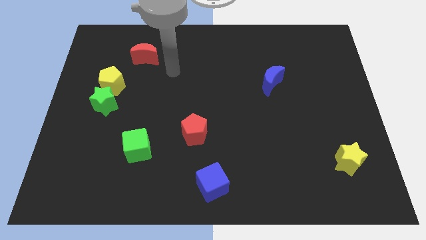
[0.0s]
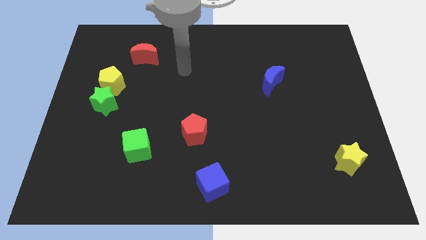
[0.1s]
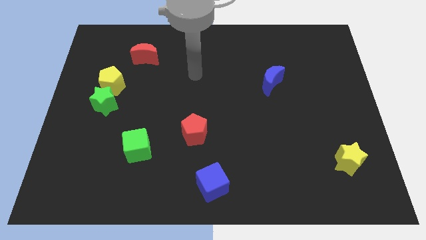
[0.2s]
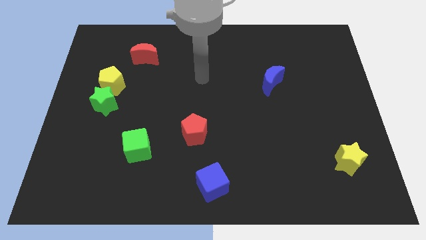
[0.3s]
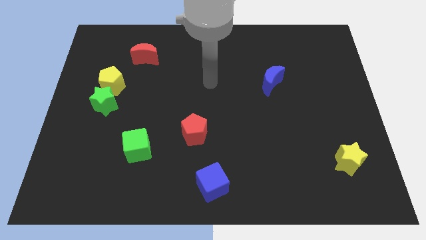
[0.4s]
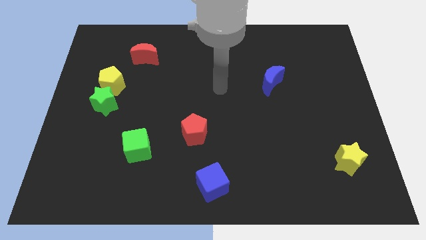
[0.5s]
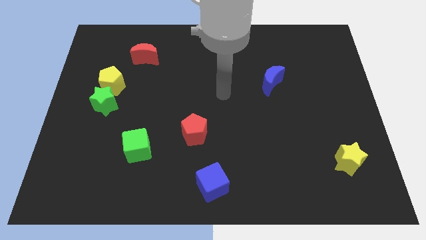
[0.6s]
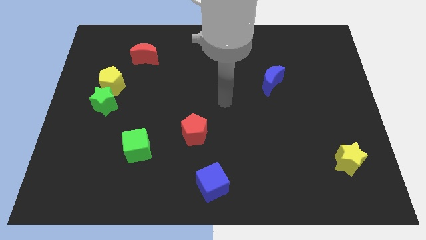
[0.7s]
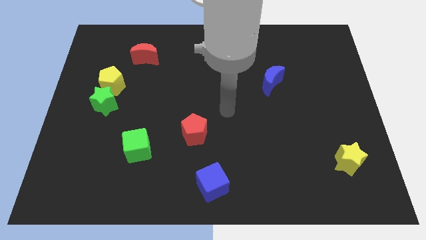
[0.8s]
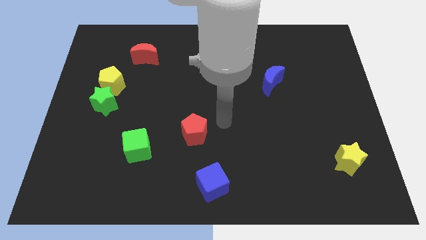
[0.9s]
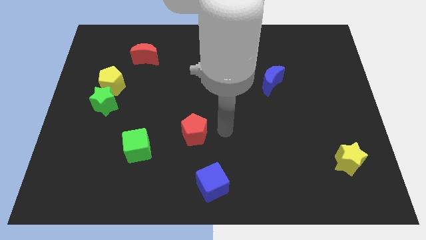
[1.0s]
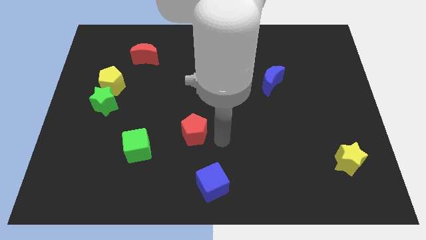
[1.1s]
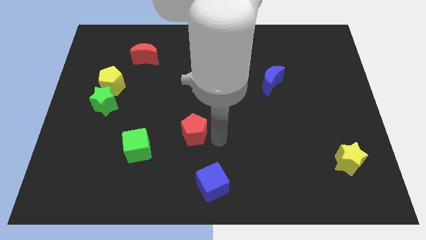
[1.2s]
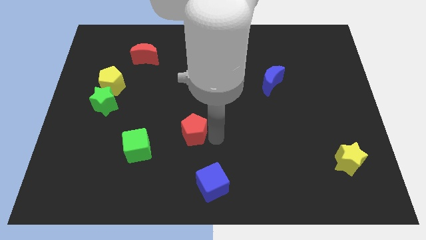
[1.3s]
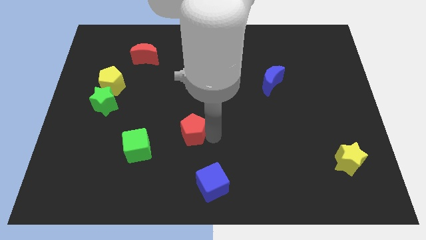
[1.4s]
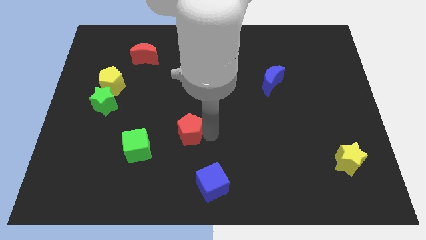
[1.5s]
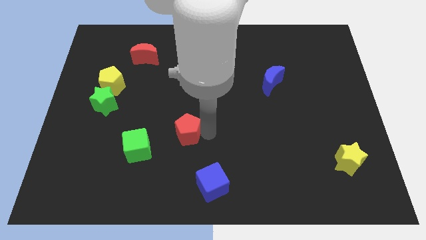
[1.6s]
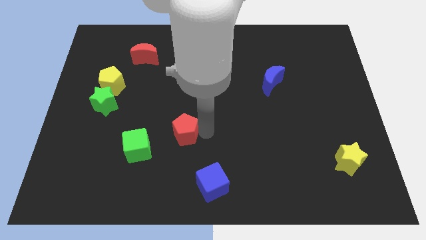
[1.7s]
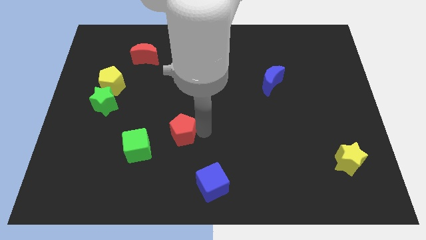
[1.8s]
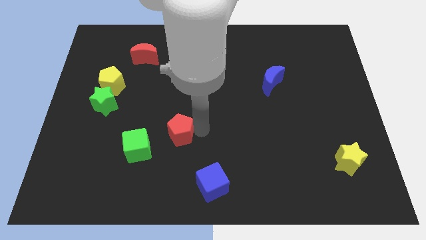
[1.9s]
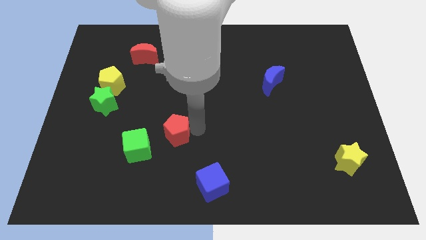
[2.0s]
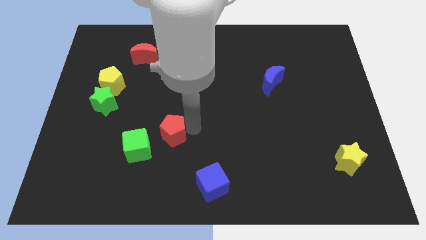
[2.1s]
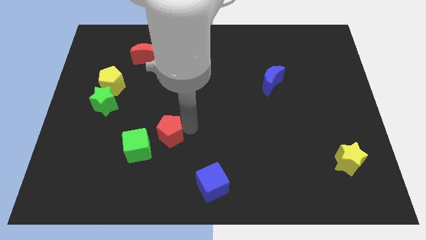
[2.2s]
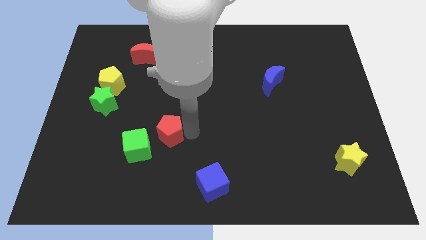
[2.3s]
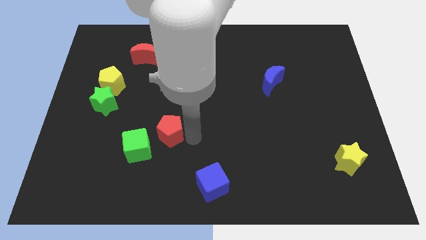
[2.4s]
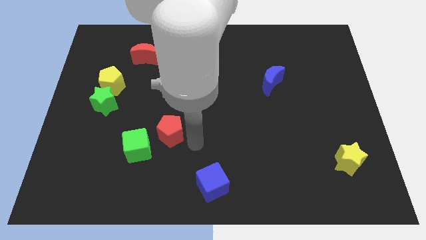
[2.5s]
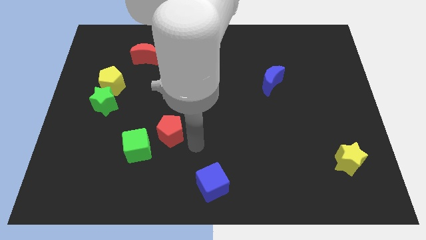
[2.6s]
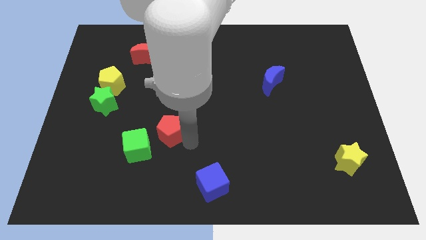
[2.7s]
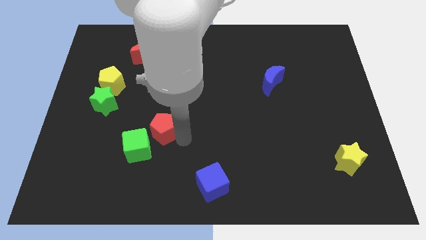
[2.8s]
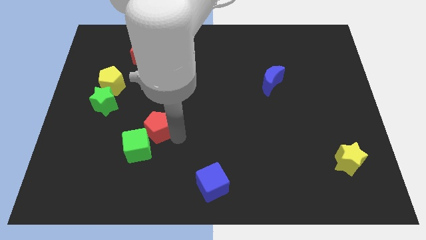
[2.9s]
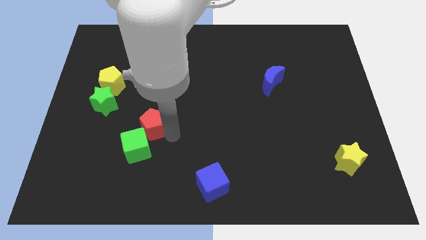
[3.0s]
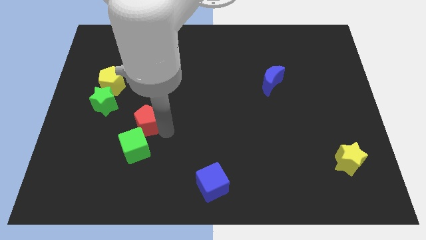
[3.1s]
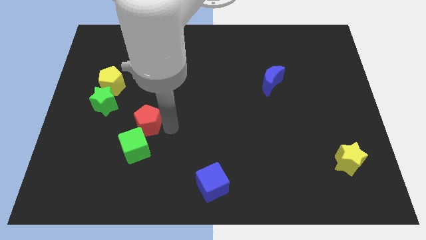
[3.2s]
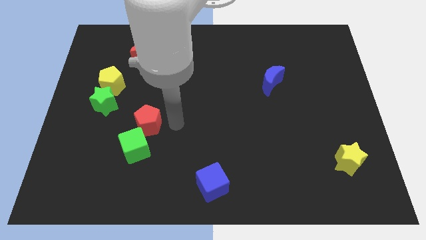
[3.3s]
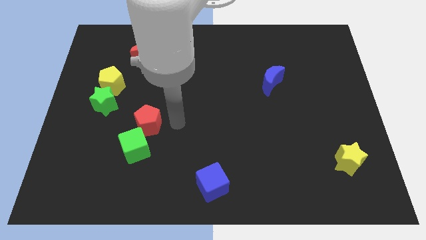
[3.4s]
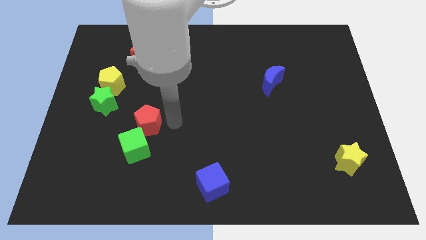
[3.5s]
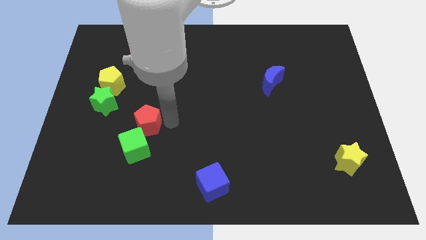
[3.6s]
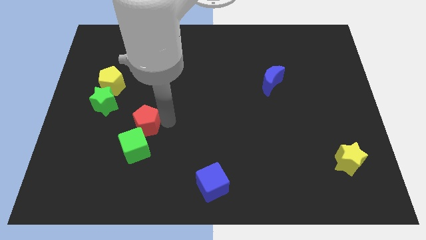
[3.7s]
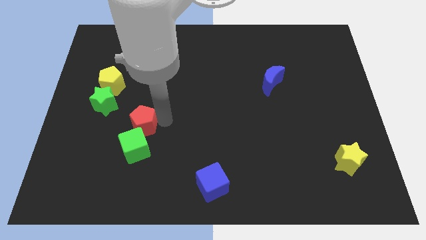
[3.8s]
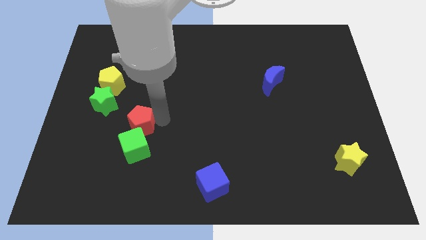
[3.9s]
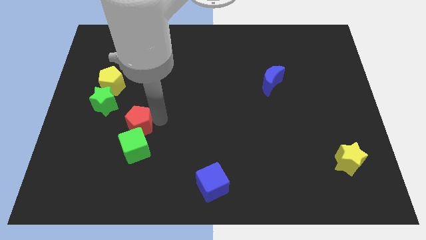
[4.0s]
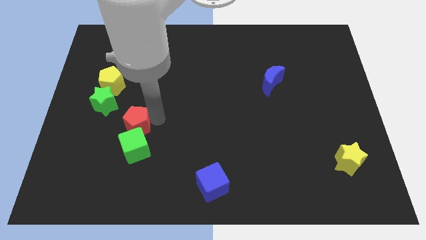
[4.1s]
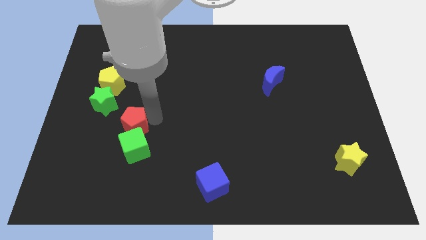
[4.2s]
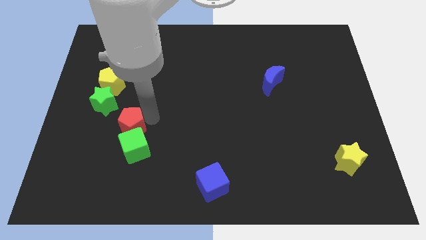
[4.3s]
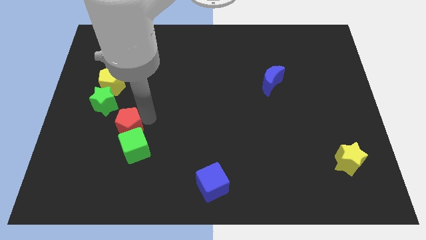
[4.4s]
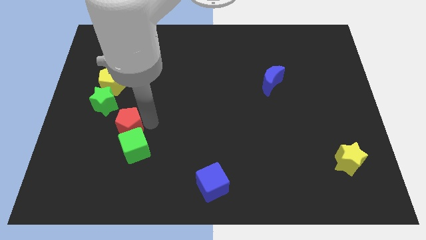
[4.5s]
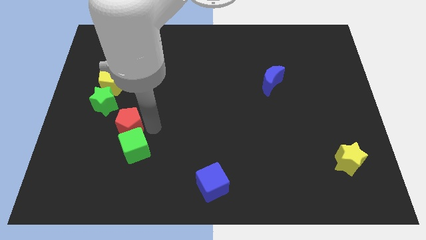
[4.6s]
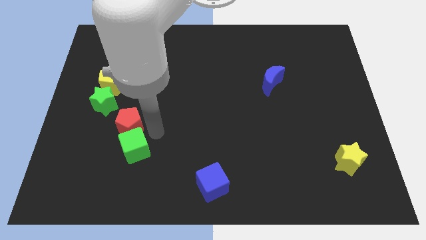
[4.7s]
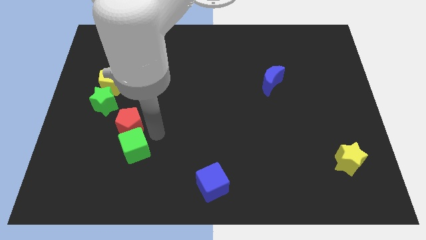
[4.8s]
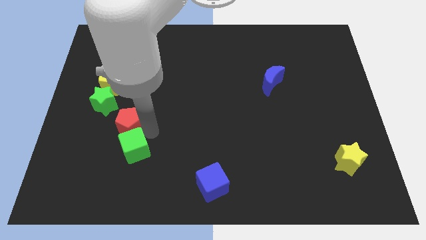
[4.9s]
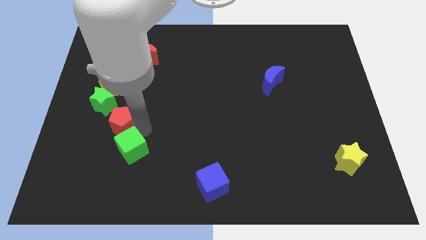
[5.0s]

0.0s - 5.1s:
put the red pentagon to the bottom of the yellow pentagon

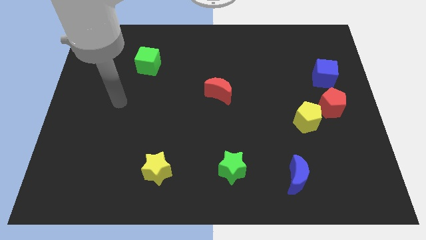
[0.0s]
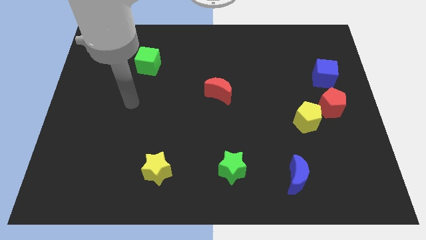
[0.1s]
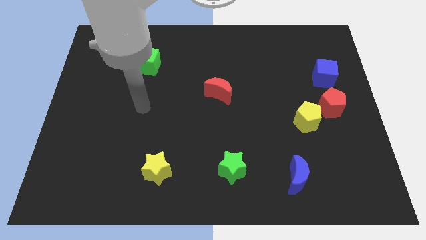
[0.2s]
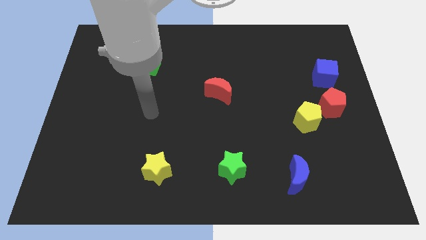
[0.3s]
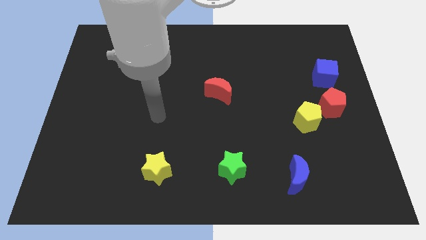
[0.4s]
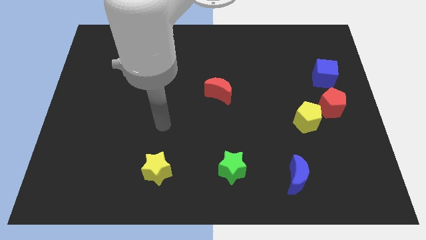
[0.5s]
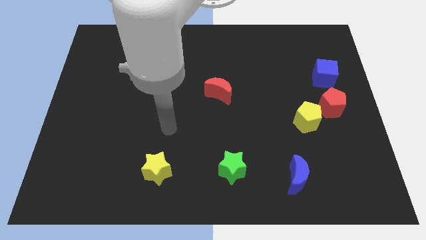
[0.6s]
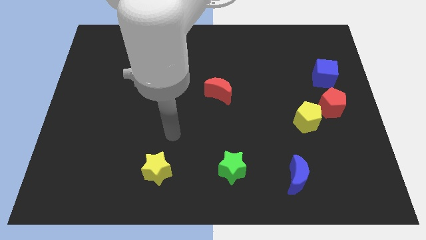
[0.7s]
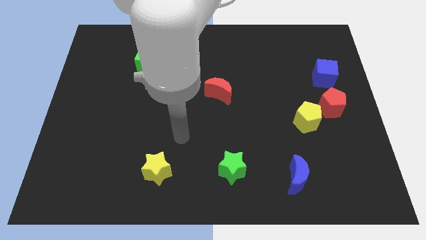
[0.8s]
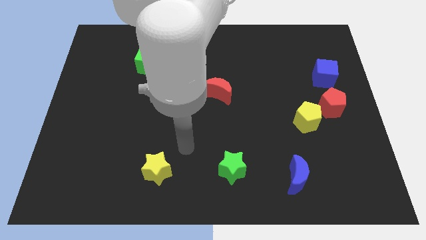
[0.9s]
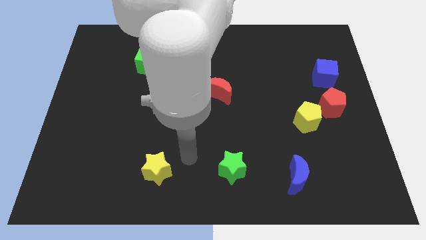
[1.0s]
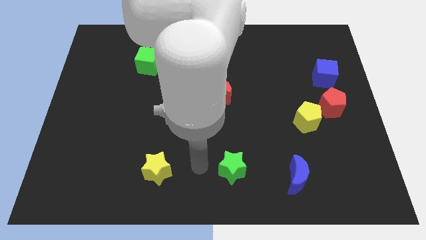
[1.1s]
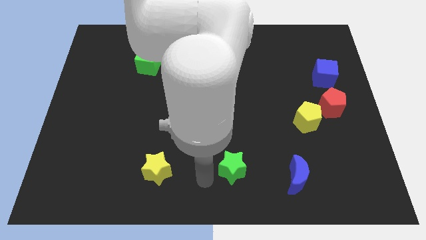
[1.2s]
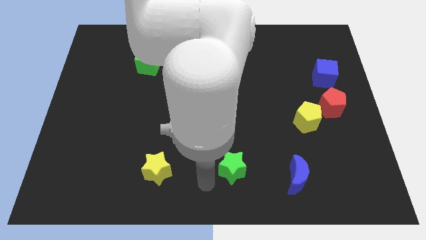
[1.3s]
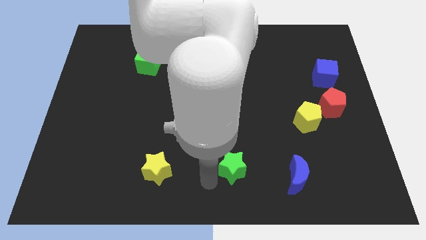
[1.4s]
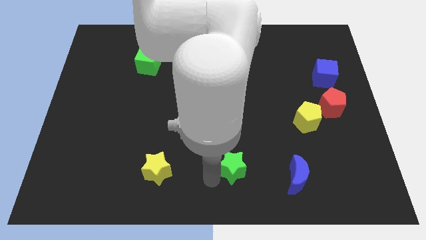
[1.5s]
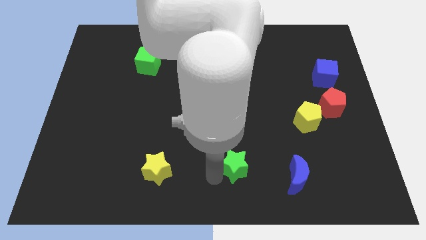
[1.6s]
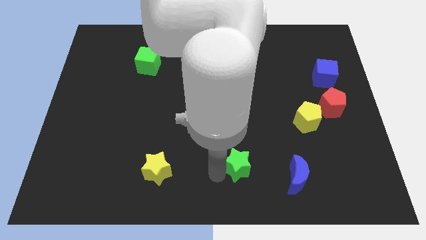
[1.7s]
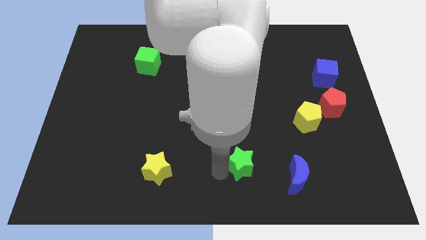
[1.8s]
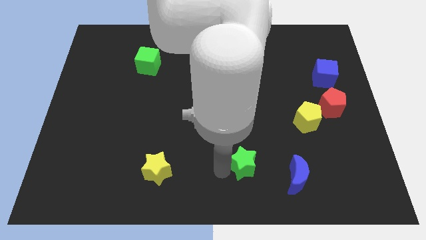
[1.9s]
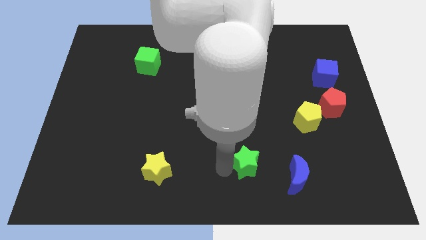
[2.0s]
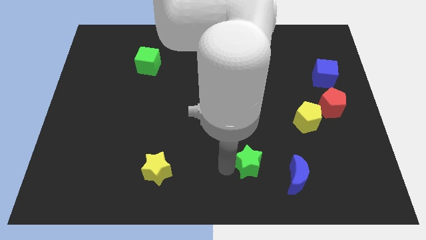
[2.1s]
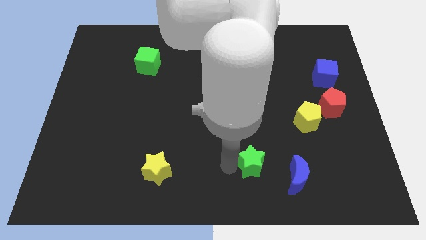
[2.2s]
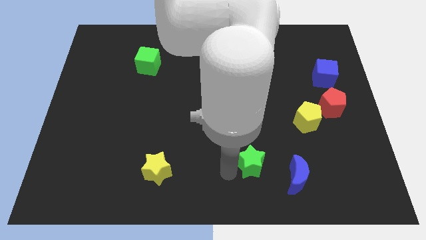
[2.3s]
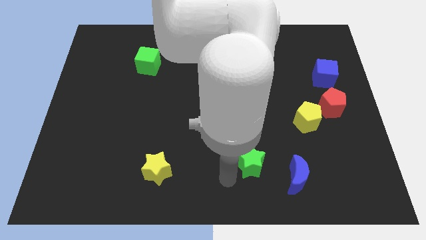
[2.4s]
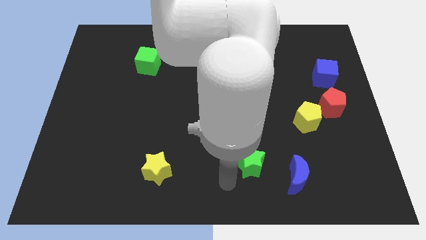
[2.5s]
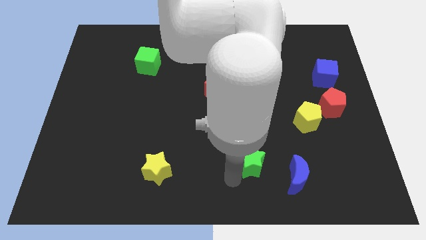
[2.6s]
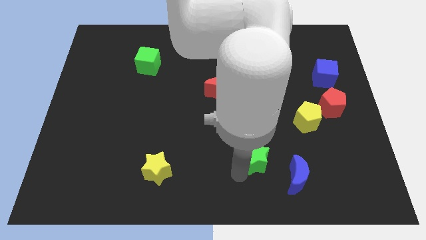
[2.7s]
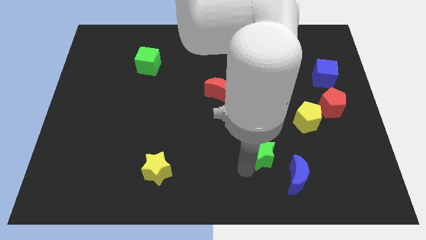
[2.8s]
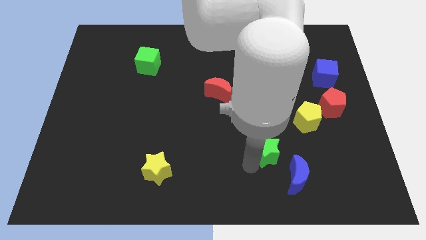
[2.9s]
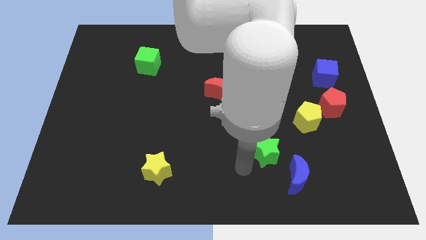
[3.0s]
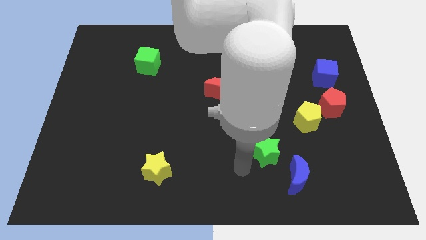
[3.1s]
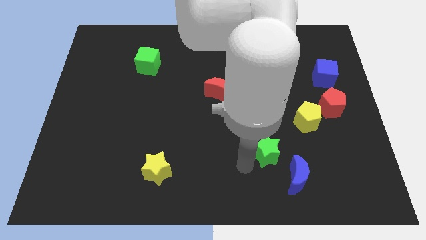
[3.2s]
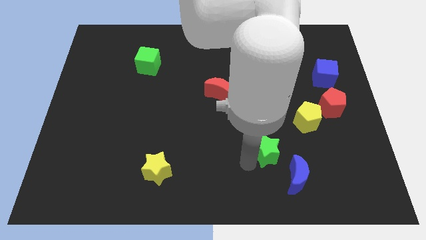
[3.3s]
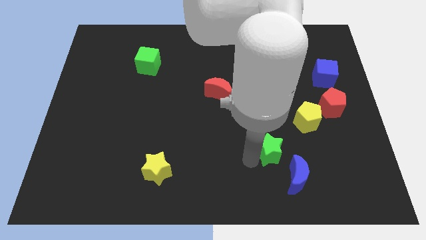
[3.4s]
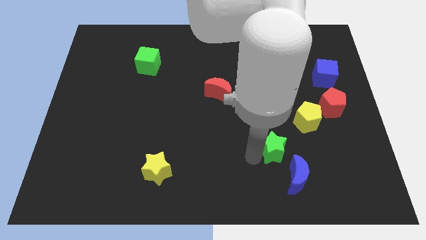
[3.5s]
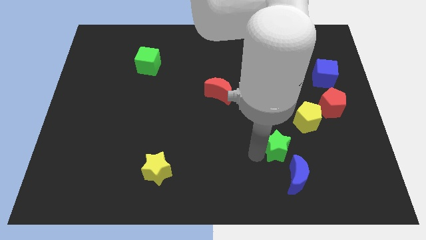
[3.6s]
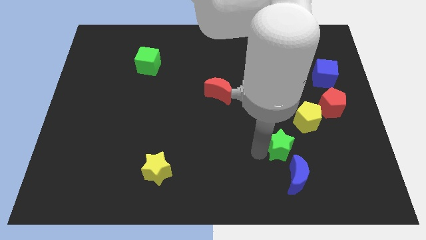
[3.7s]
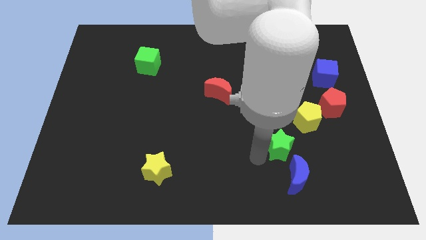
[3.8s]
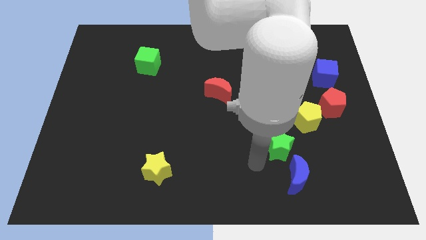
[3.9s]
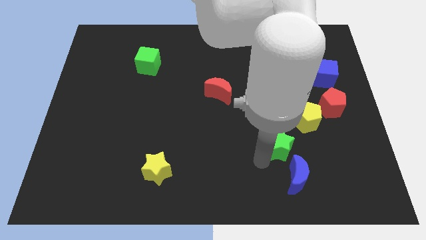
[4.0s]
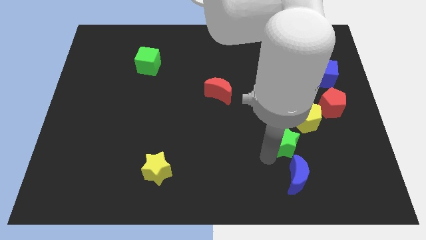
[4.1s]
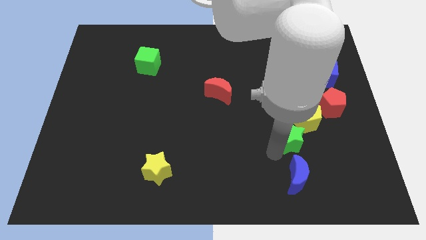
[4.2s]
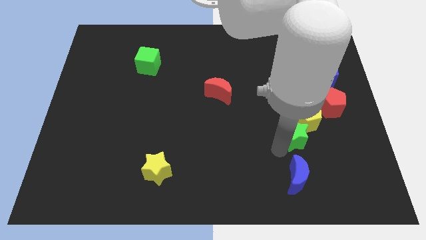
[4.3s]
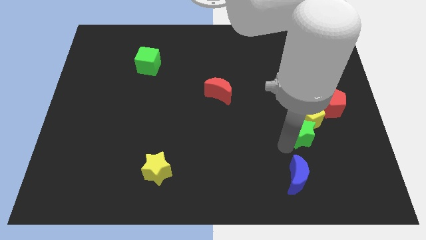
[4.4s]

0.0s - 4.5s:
move the green star to the bottom left of the red pentagon
